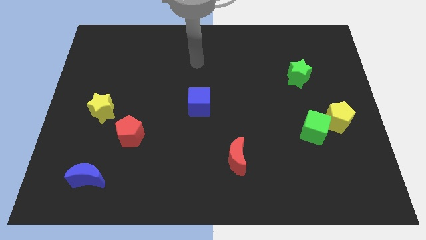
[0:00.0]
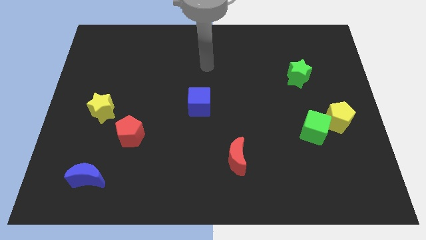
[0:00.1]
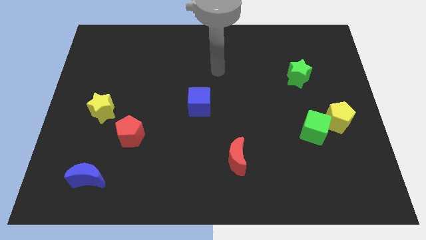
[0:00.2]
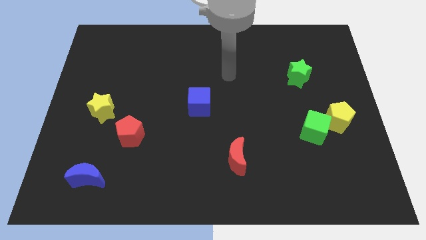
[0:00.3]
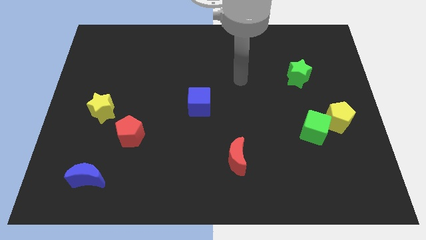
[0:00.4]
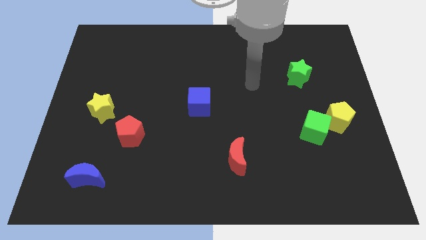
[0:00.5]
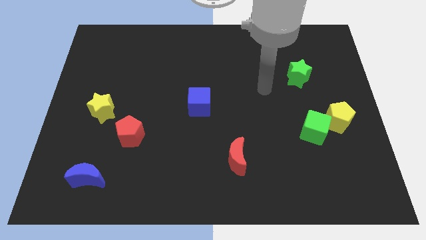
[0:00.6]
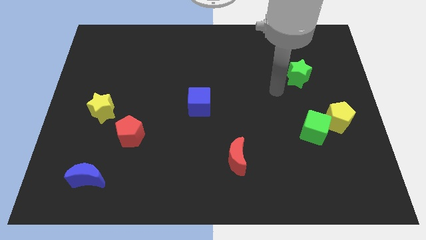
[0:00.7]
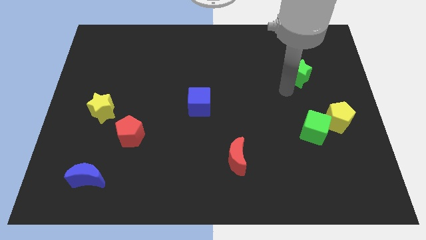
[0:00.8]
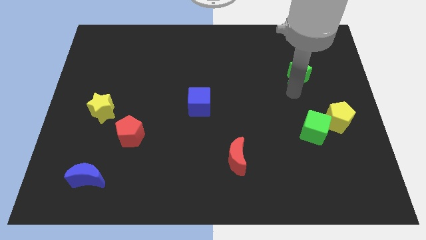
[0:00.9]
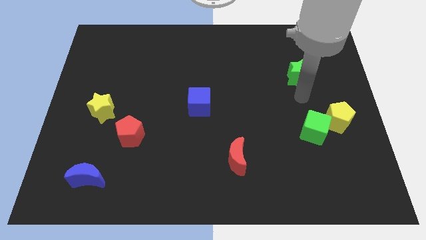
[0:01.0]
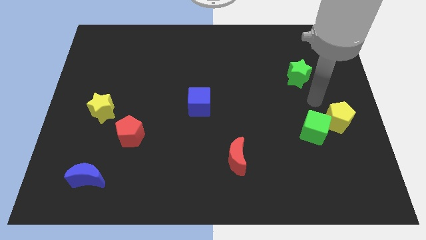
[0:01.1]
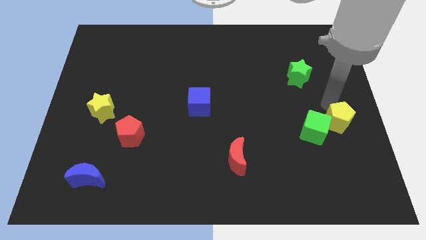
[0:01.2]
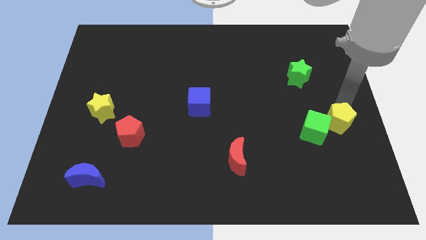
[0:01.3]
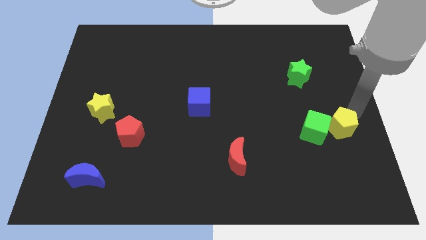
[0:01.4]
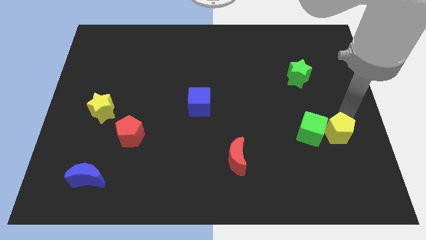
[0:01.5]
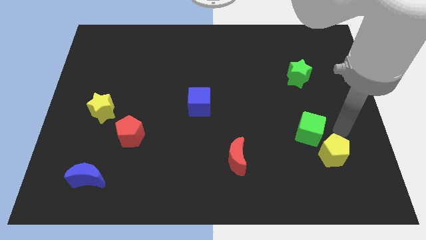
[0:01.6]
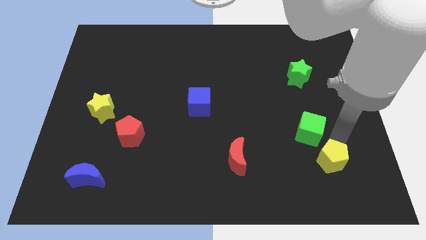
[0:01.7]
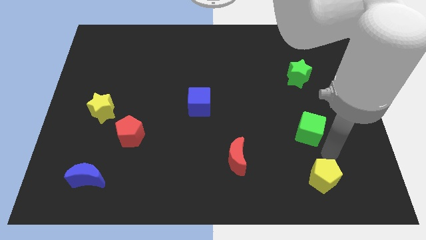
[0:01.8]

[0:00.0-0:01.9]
move the green cube away from the yellow pentagon

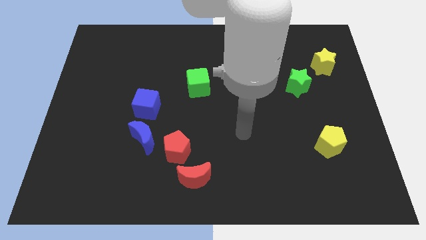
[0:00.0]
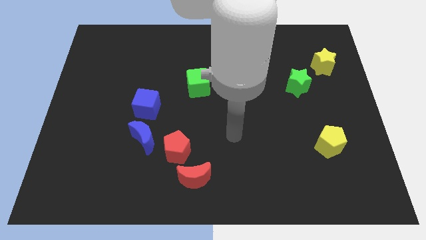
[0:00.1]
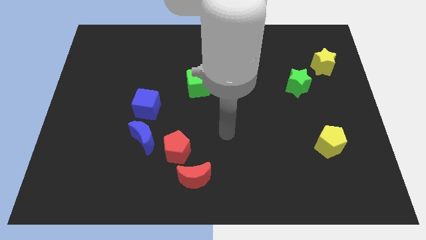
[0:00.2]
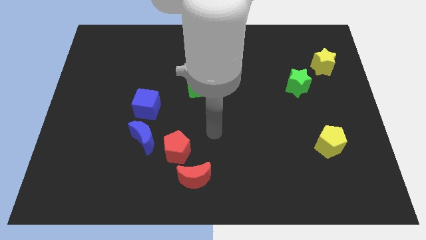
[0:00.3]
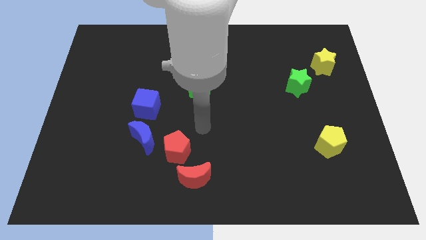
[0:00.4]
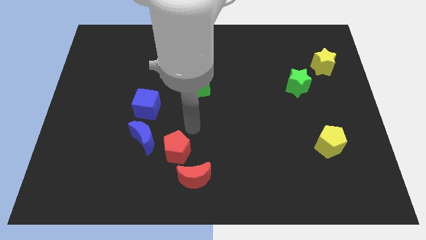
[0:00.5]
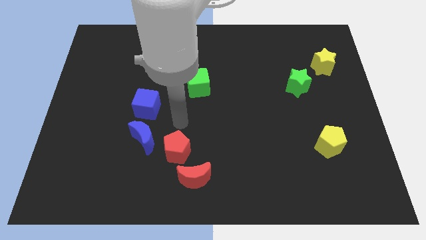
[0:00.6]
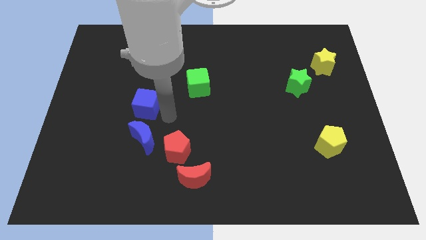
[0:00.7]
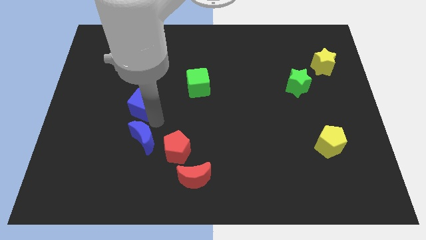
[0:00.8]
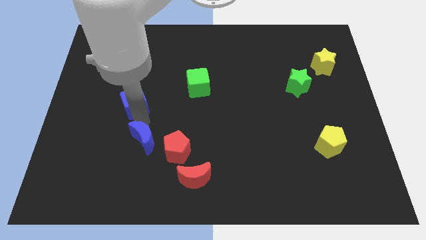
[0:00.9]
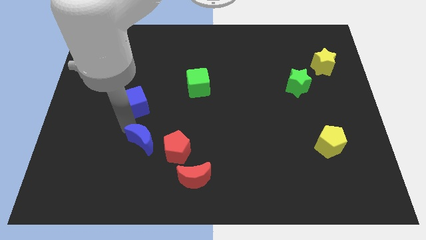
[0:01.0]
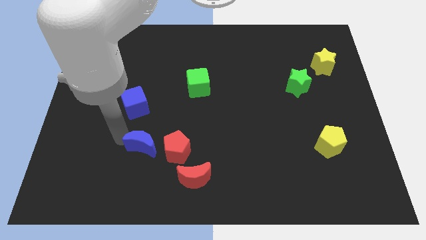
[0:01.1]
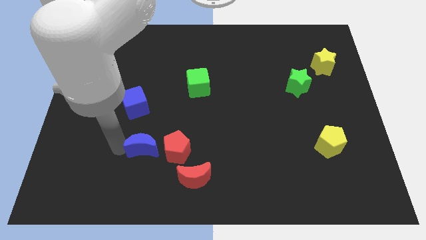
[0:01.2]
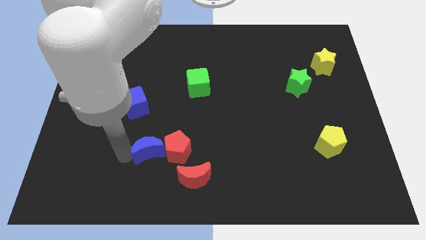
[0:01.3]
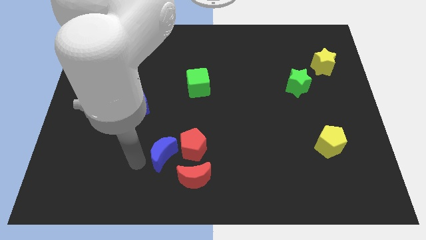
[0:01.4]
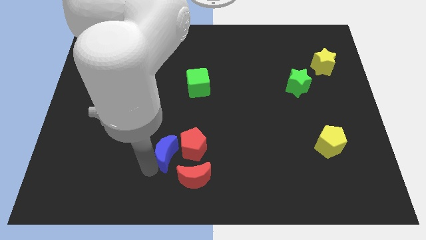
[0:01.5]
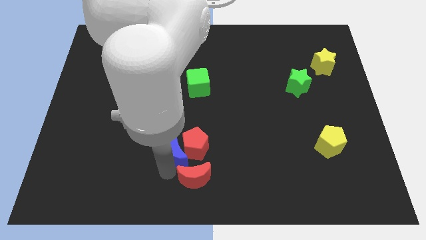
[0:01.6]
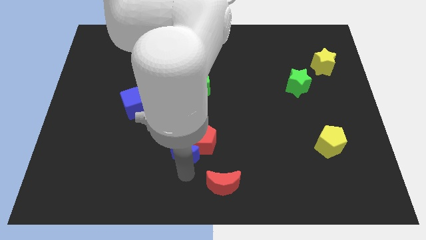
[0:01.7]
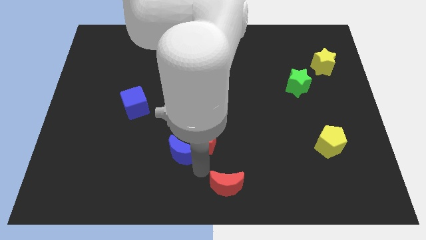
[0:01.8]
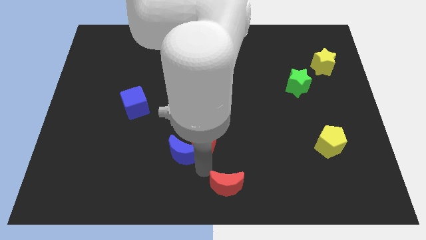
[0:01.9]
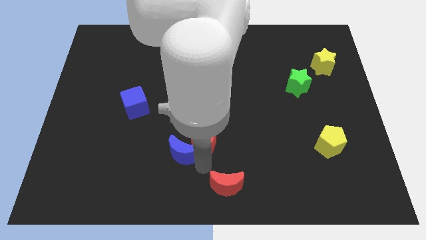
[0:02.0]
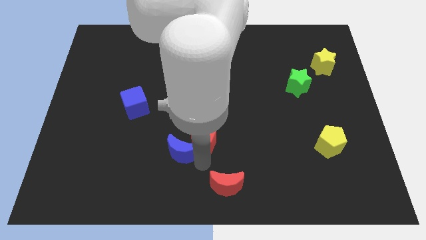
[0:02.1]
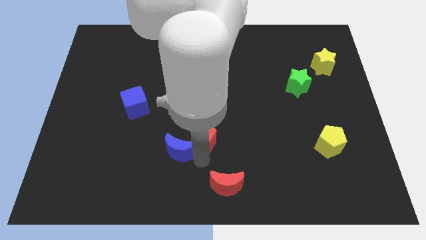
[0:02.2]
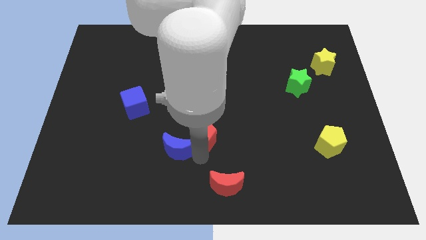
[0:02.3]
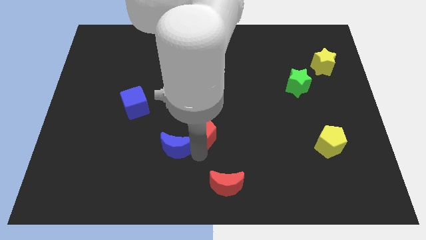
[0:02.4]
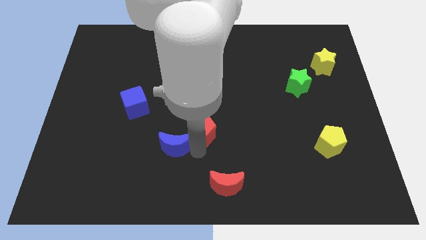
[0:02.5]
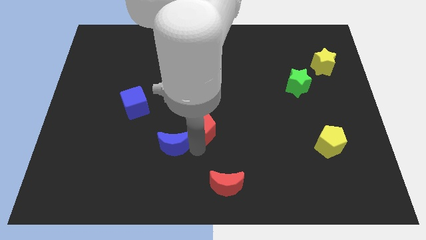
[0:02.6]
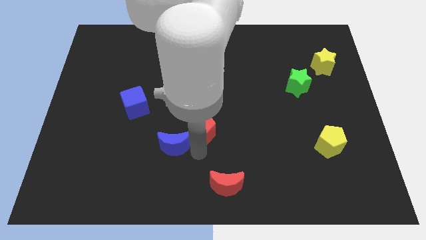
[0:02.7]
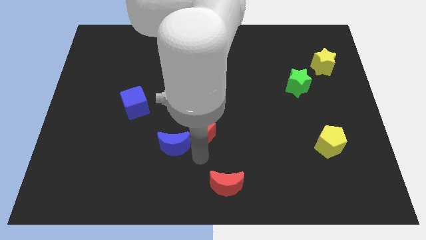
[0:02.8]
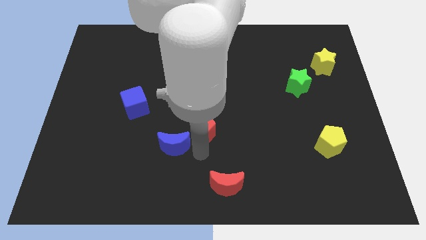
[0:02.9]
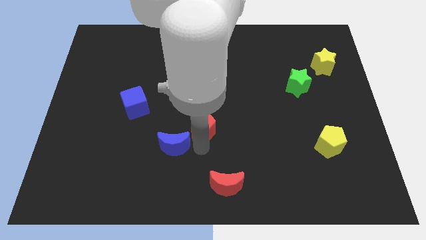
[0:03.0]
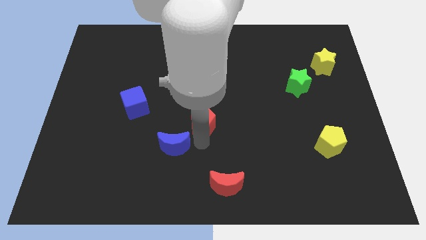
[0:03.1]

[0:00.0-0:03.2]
pull the red pentagon apart from the blue moon and red moon

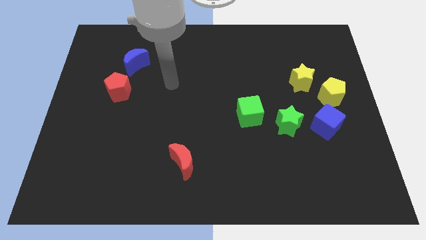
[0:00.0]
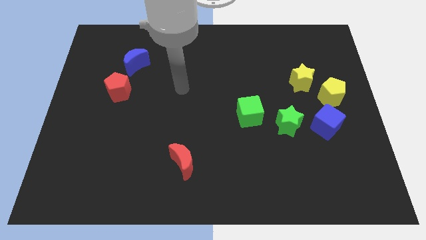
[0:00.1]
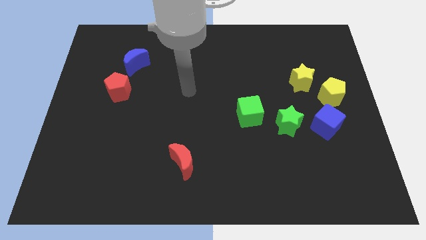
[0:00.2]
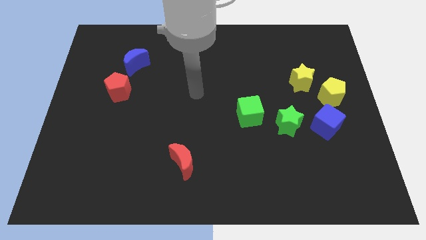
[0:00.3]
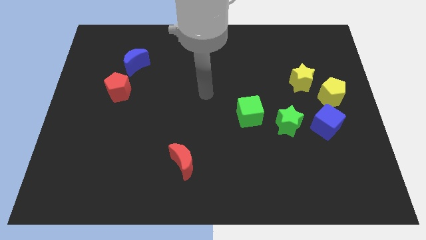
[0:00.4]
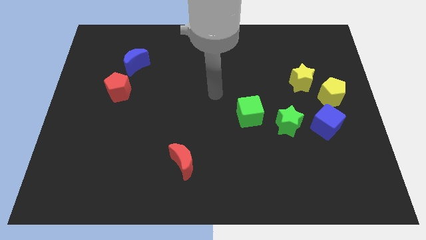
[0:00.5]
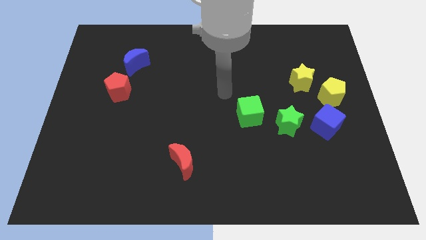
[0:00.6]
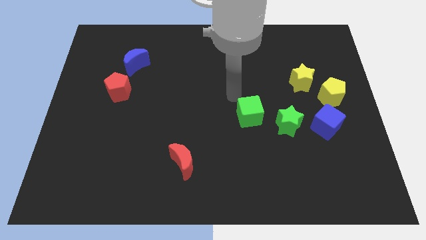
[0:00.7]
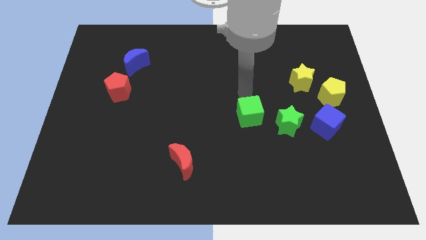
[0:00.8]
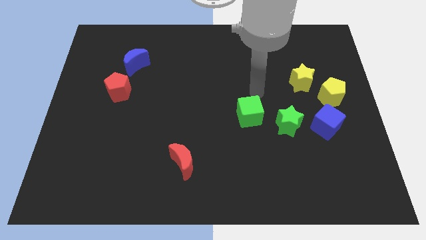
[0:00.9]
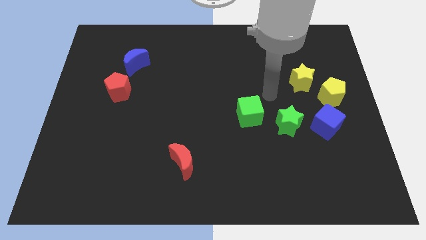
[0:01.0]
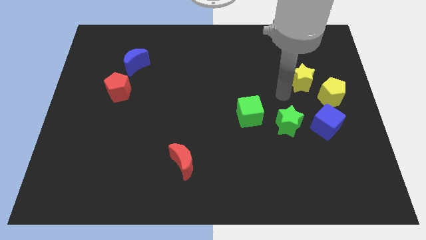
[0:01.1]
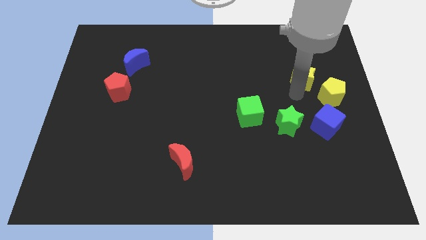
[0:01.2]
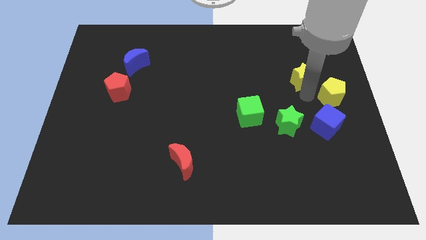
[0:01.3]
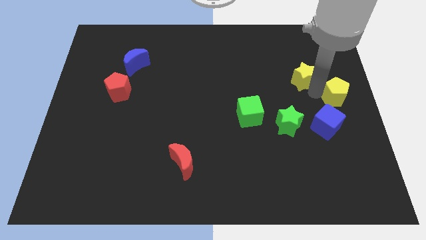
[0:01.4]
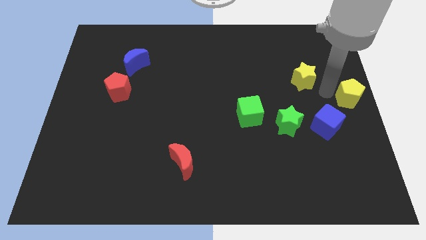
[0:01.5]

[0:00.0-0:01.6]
pull the yellow star apart from the yellow pentagon

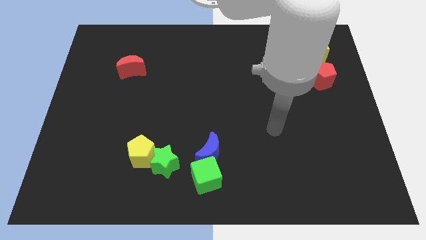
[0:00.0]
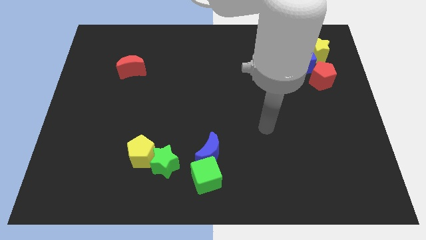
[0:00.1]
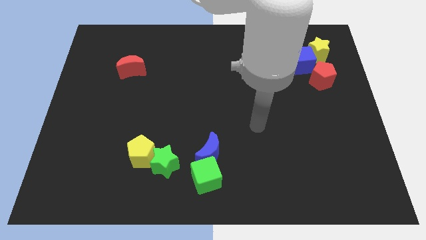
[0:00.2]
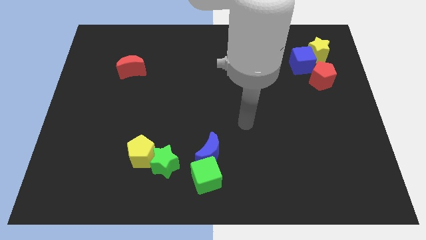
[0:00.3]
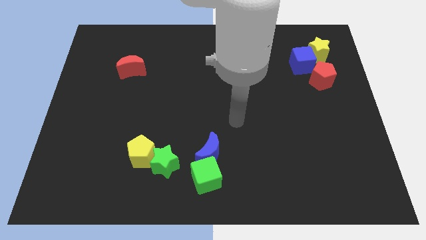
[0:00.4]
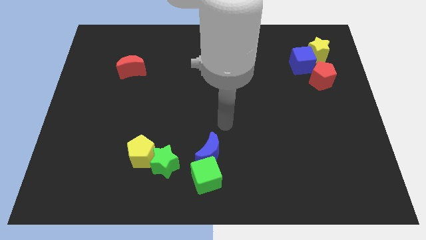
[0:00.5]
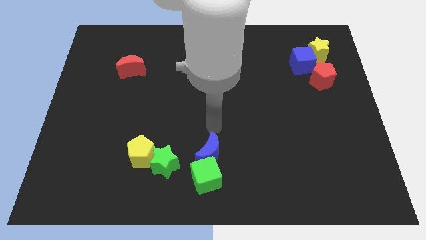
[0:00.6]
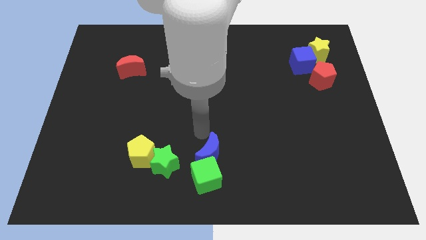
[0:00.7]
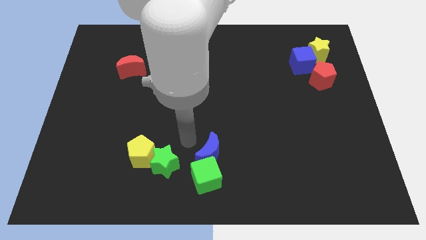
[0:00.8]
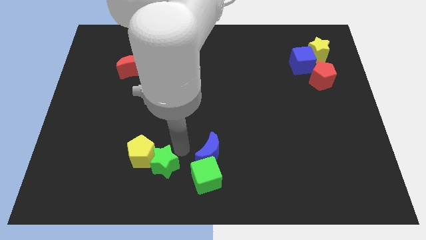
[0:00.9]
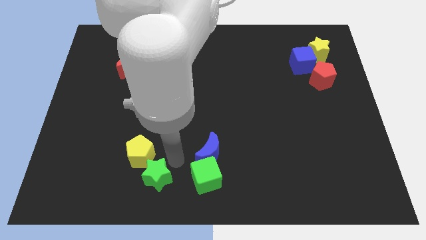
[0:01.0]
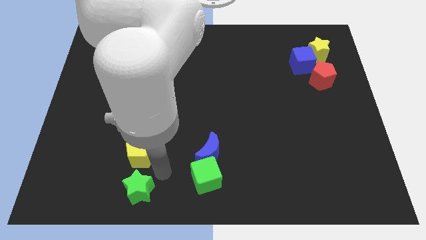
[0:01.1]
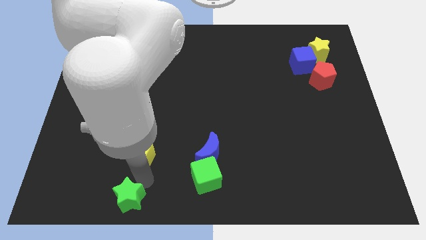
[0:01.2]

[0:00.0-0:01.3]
separate the yellow pentagon from the green star

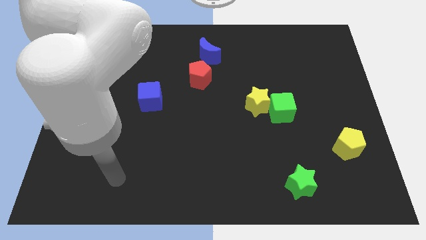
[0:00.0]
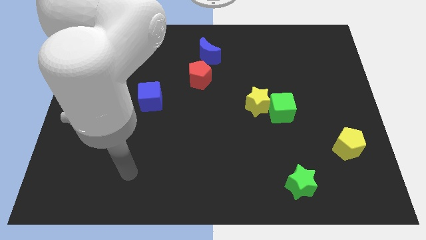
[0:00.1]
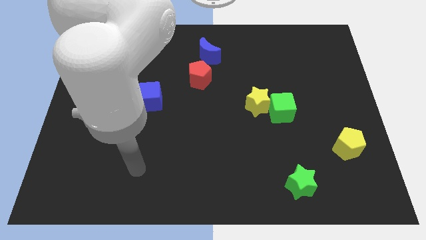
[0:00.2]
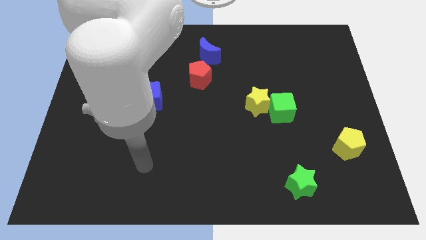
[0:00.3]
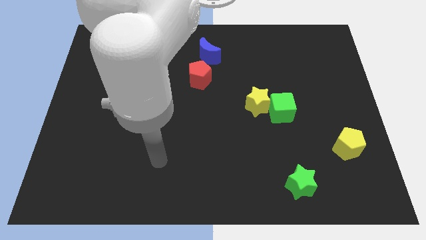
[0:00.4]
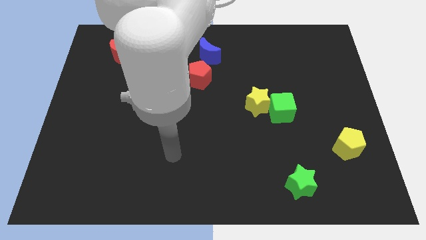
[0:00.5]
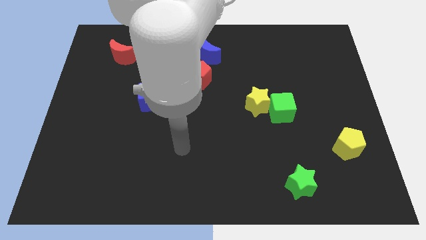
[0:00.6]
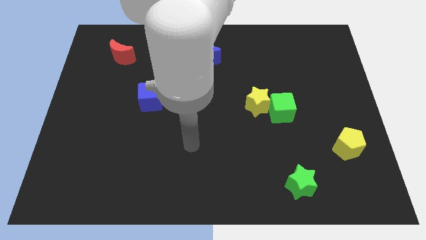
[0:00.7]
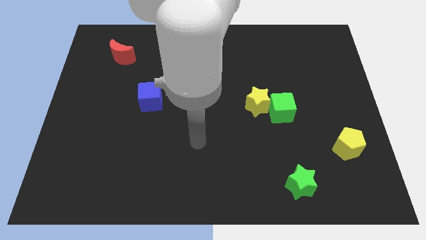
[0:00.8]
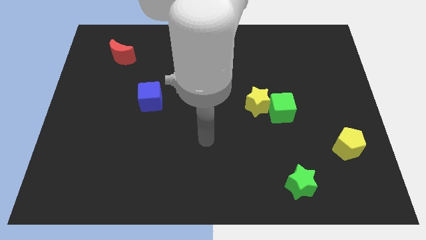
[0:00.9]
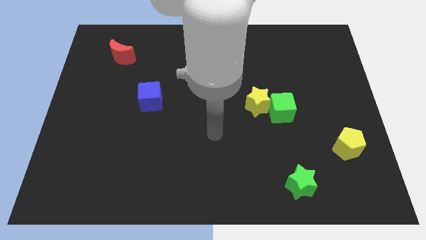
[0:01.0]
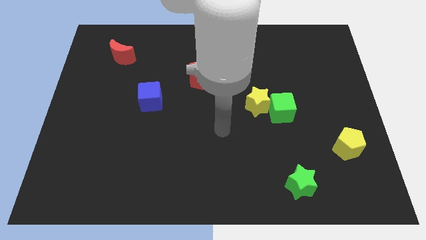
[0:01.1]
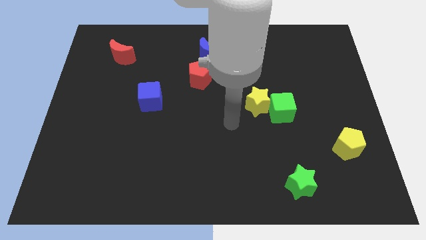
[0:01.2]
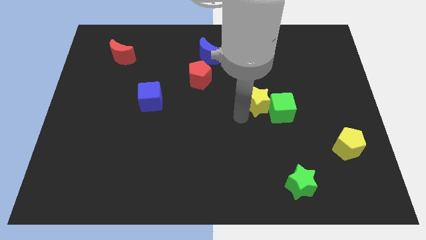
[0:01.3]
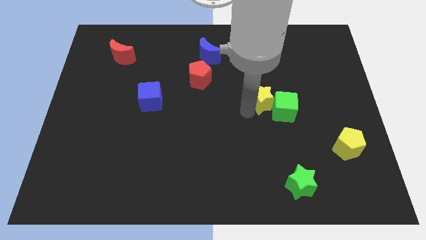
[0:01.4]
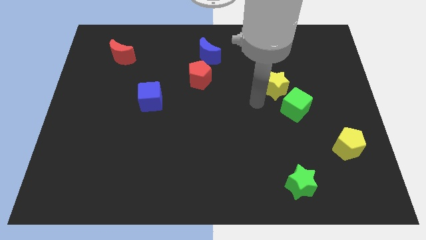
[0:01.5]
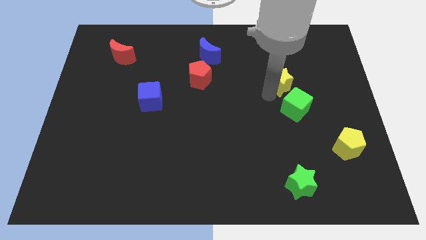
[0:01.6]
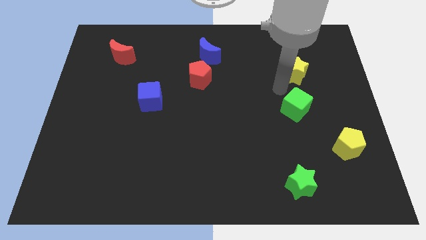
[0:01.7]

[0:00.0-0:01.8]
pull the green cube apart from the yellow star
